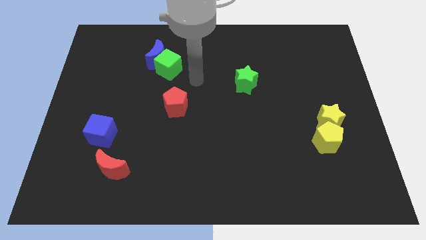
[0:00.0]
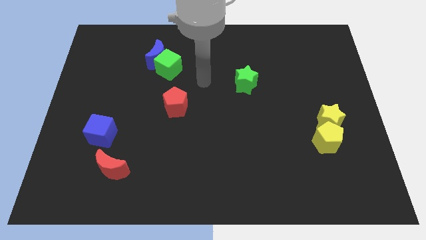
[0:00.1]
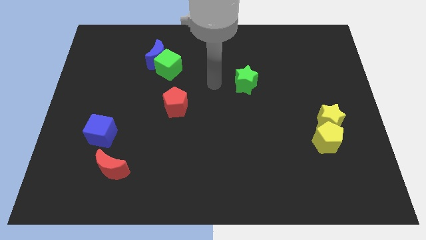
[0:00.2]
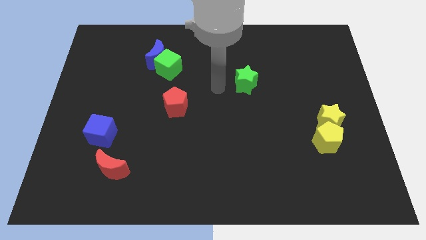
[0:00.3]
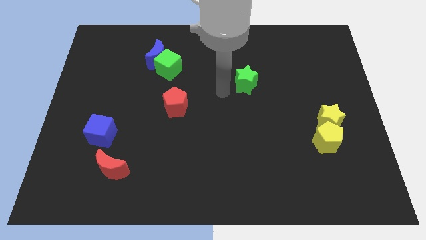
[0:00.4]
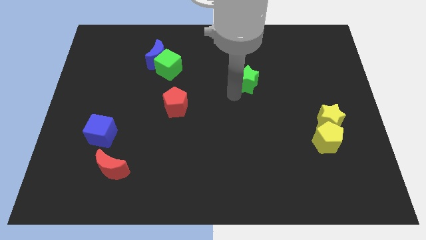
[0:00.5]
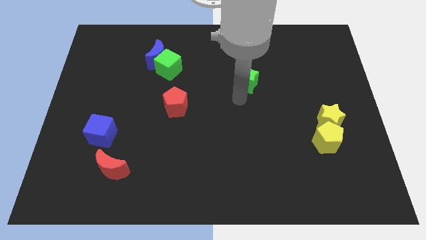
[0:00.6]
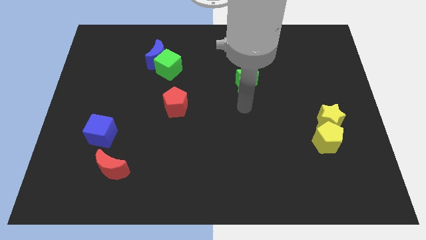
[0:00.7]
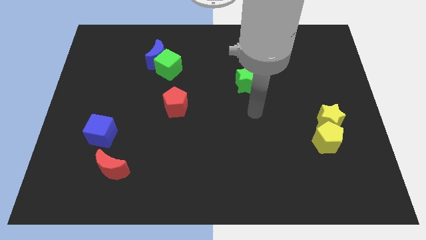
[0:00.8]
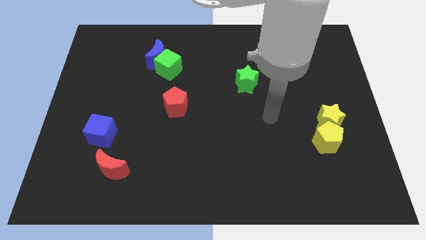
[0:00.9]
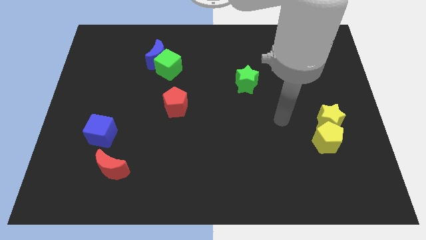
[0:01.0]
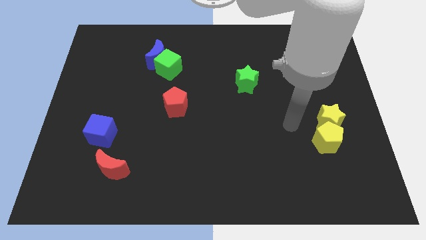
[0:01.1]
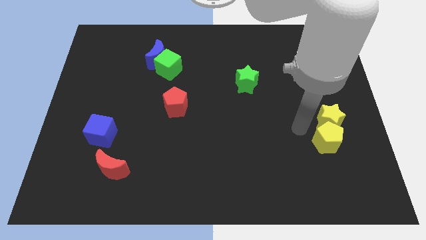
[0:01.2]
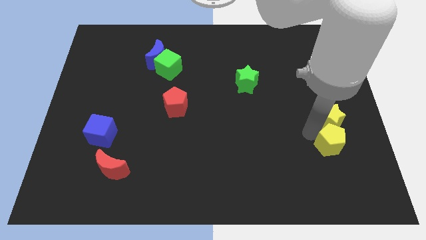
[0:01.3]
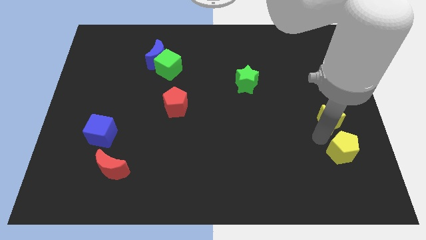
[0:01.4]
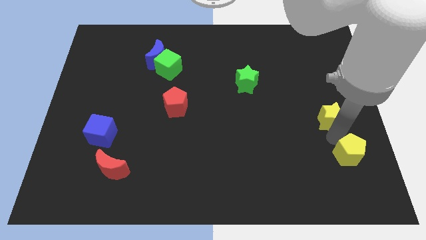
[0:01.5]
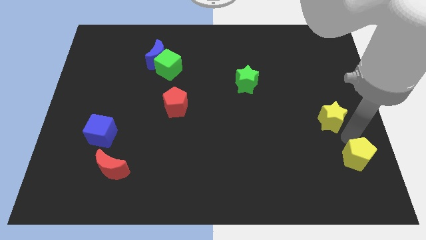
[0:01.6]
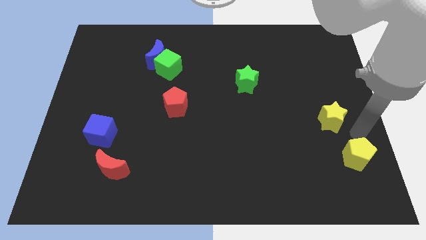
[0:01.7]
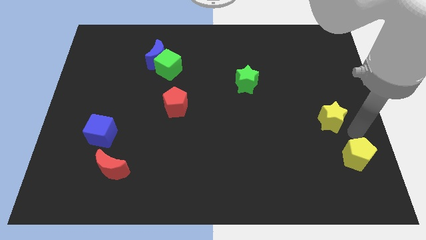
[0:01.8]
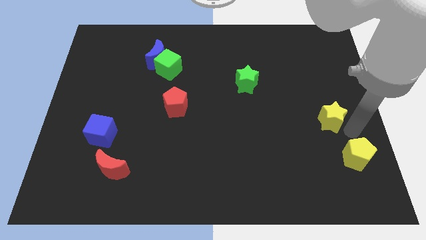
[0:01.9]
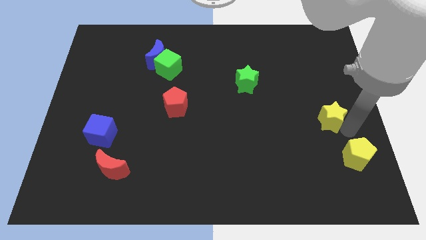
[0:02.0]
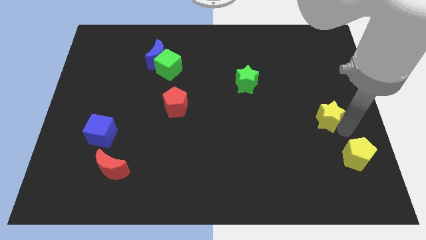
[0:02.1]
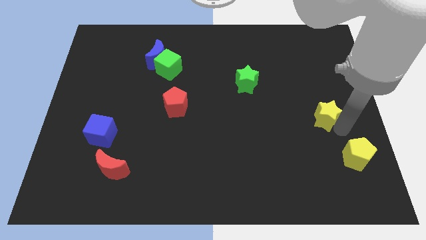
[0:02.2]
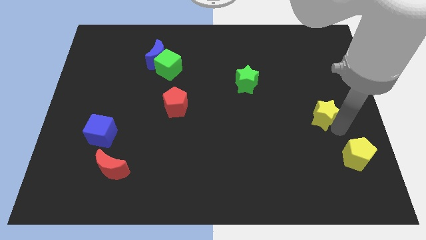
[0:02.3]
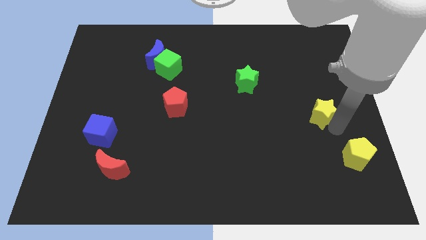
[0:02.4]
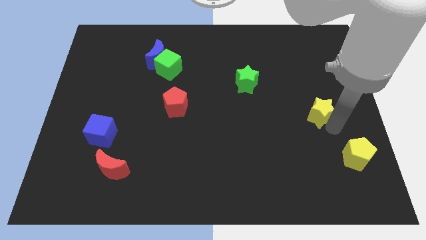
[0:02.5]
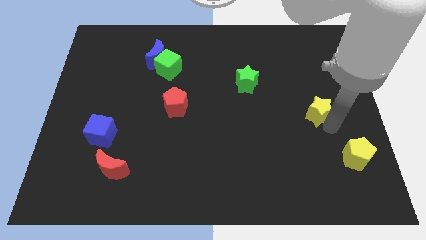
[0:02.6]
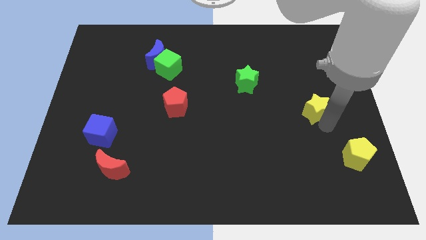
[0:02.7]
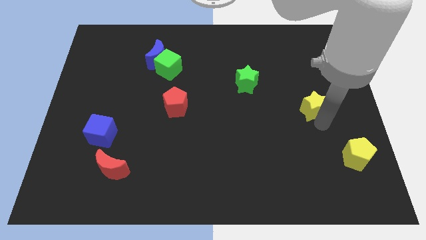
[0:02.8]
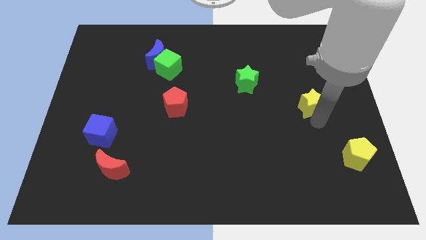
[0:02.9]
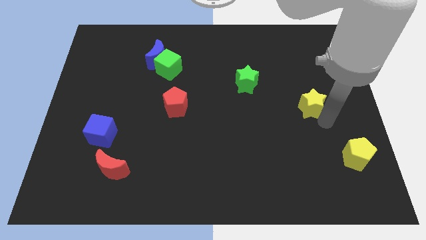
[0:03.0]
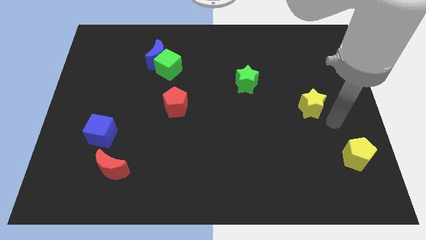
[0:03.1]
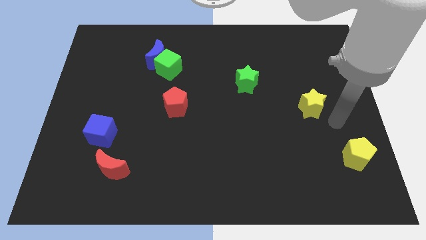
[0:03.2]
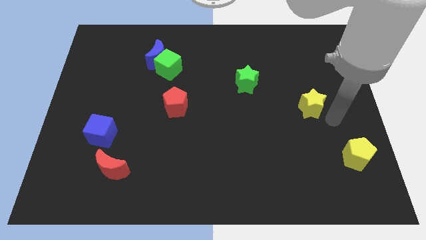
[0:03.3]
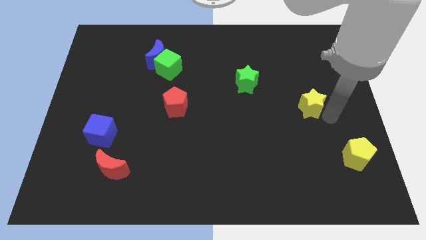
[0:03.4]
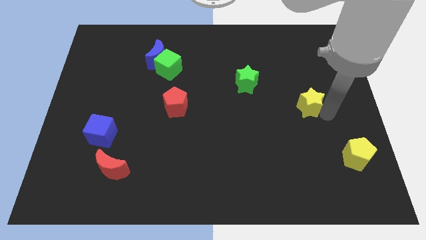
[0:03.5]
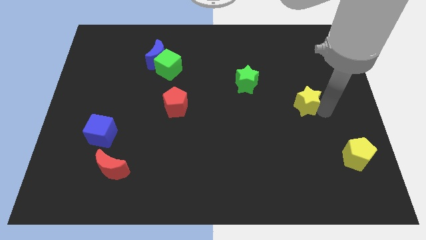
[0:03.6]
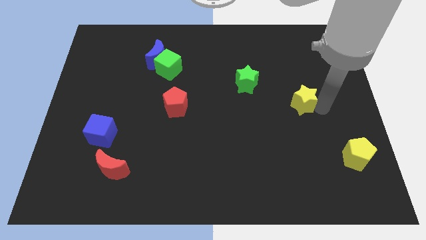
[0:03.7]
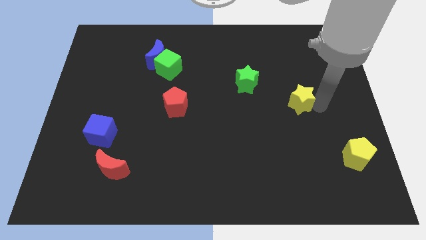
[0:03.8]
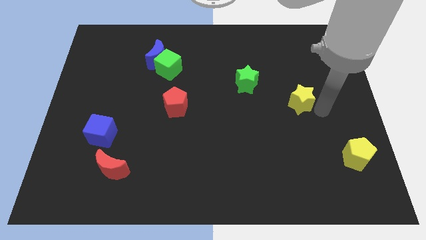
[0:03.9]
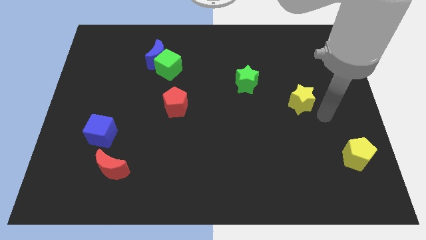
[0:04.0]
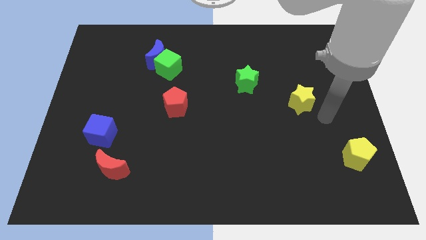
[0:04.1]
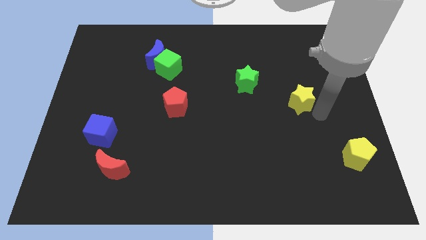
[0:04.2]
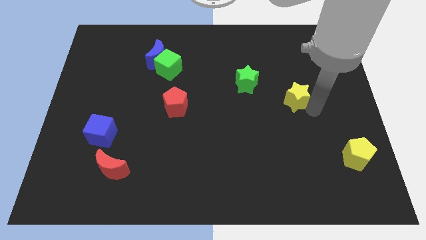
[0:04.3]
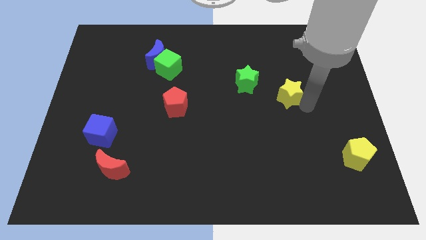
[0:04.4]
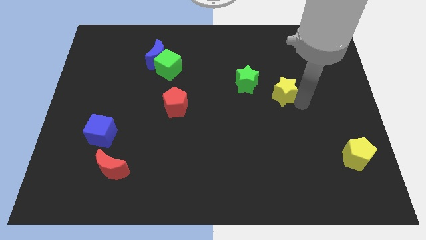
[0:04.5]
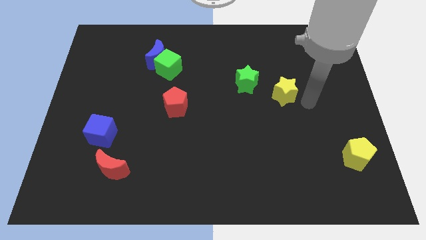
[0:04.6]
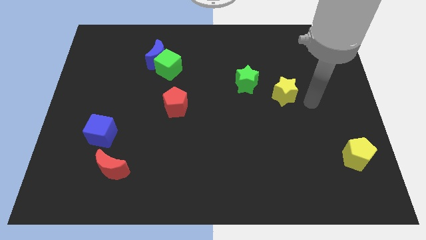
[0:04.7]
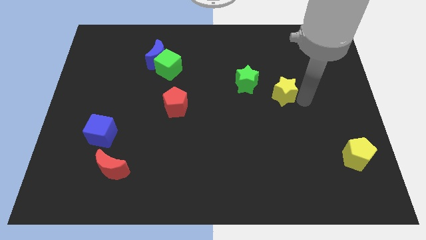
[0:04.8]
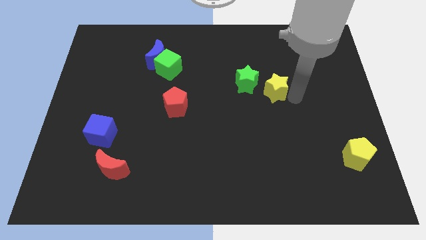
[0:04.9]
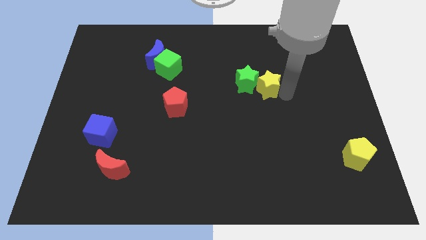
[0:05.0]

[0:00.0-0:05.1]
slide the yellow star towards the green star

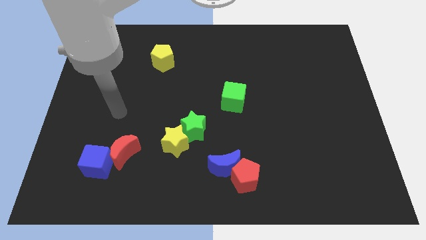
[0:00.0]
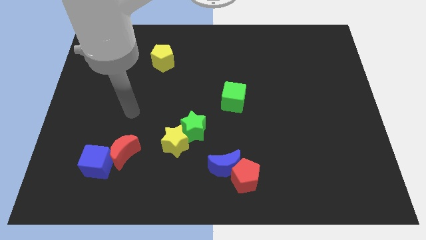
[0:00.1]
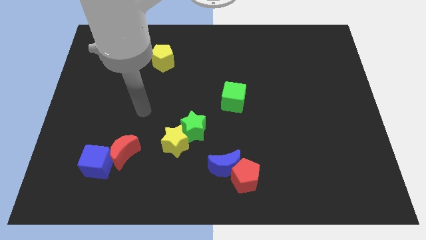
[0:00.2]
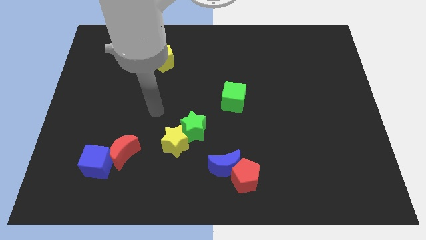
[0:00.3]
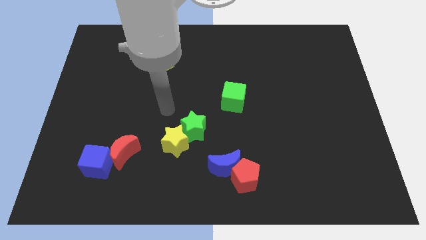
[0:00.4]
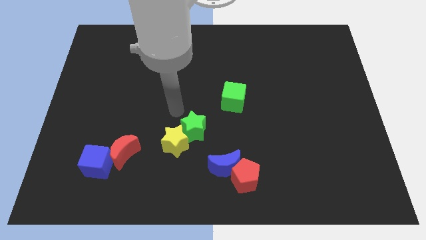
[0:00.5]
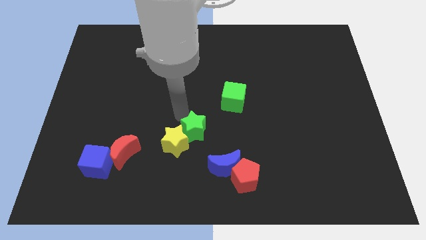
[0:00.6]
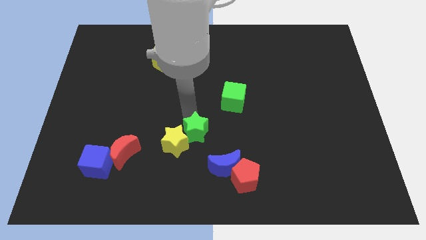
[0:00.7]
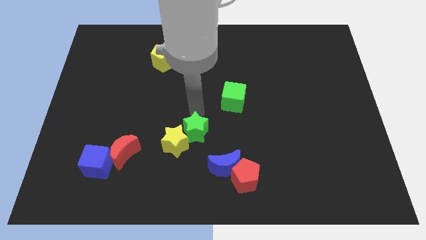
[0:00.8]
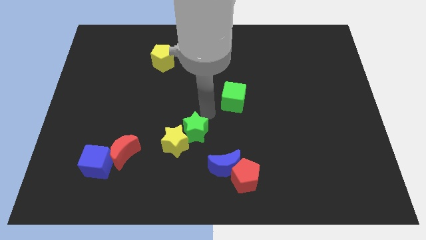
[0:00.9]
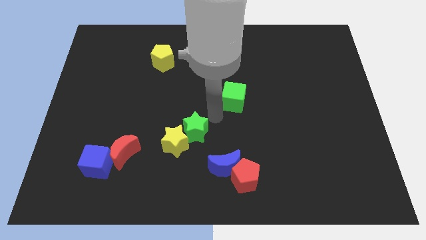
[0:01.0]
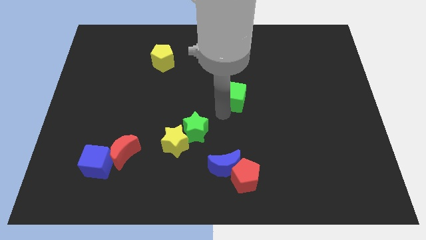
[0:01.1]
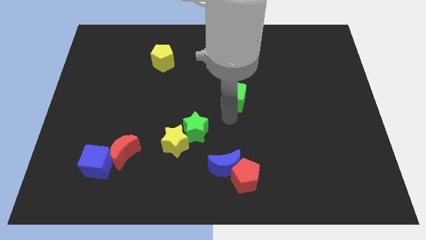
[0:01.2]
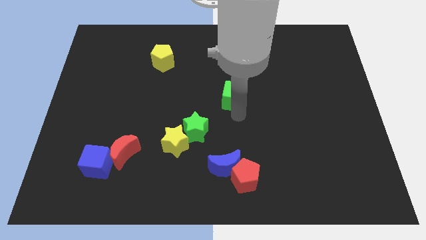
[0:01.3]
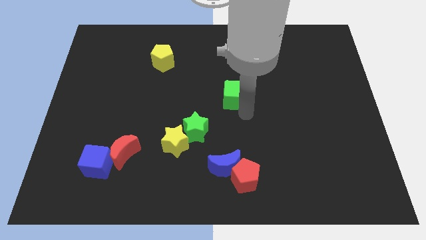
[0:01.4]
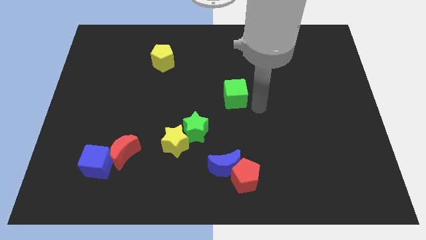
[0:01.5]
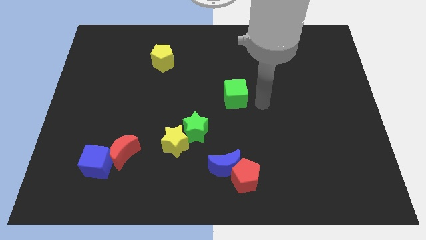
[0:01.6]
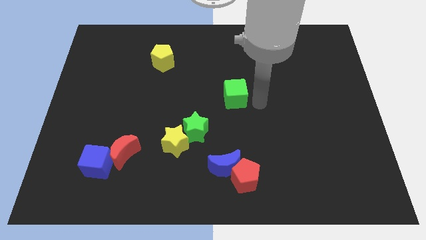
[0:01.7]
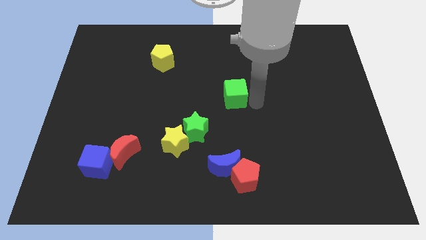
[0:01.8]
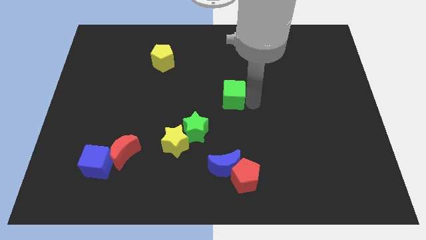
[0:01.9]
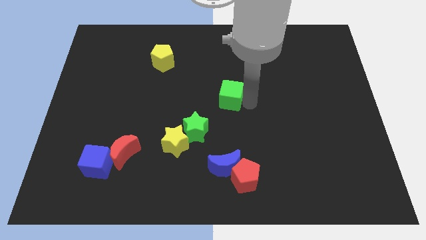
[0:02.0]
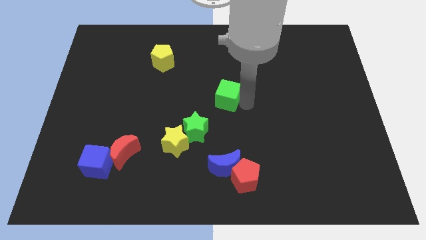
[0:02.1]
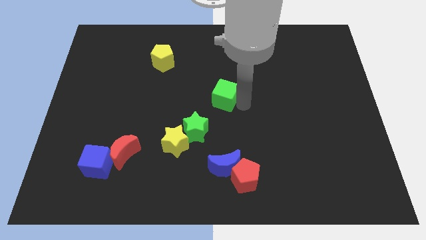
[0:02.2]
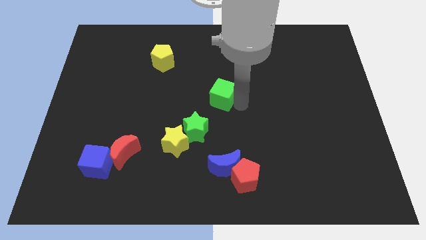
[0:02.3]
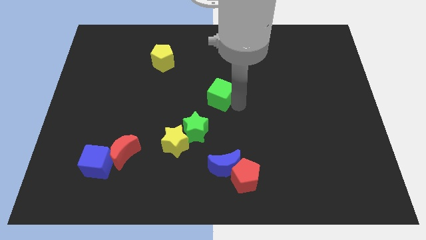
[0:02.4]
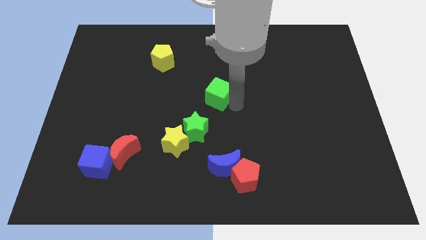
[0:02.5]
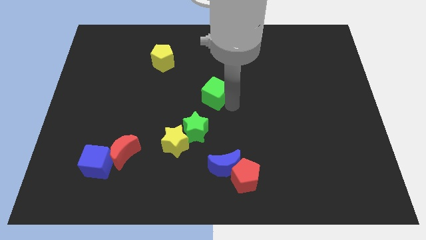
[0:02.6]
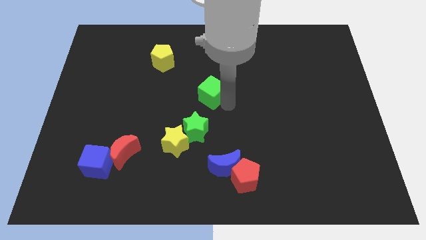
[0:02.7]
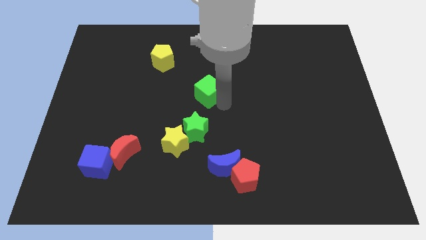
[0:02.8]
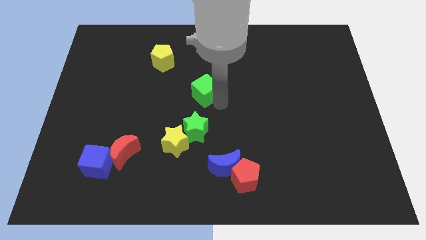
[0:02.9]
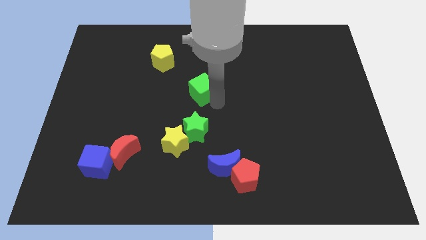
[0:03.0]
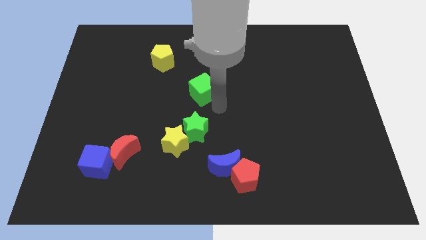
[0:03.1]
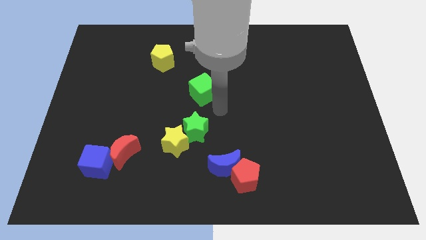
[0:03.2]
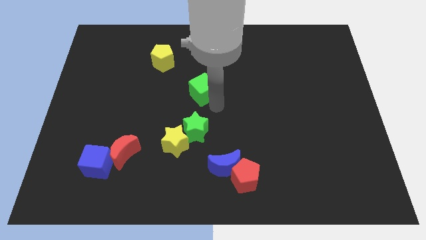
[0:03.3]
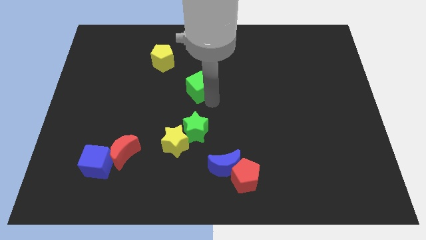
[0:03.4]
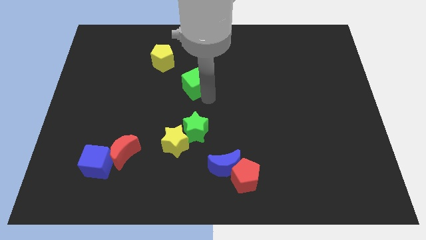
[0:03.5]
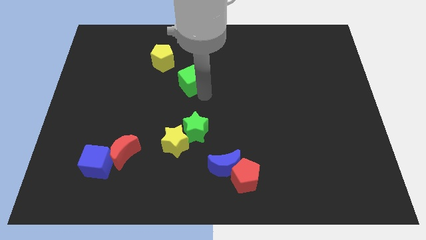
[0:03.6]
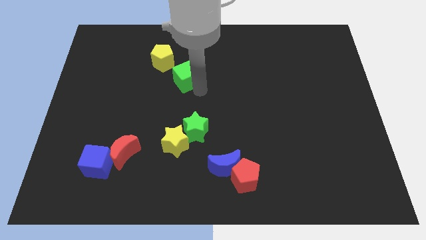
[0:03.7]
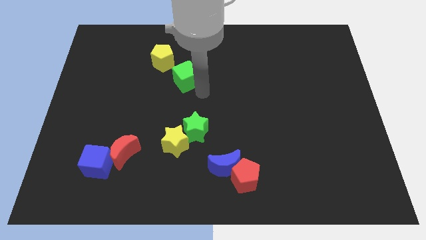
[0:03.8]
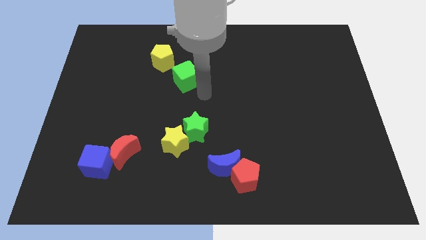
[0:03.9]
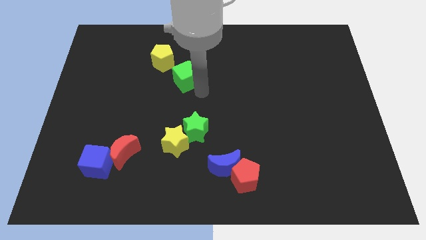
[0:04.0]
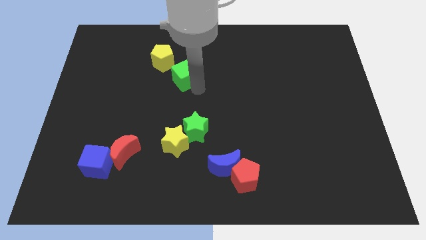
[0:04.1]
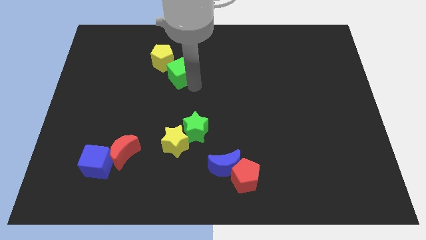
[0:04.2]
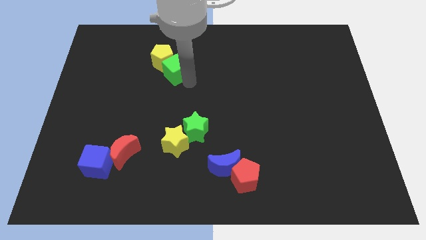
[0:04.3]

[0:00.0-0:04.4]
move the green cube close to the yellow pentagon
